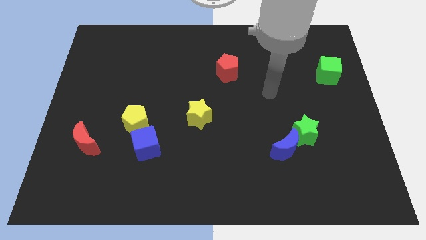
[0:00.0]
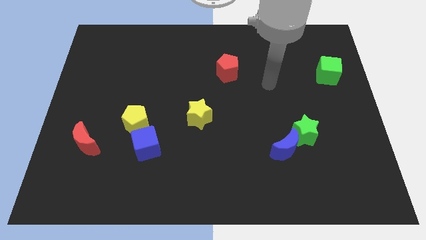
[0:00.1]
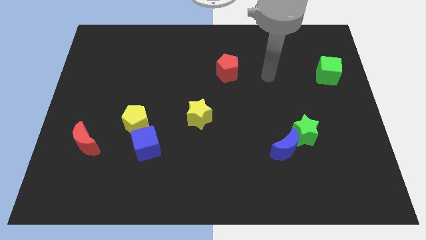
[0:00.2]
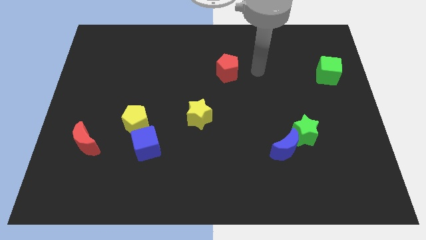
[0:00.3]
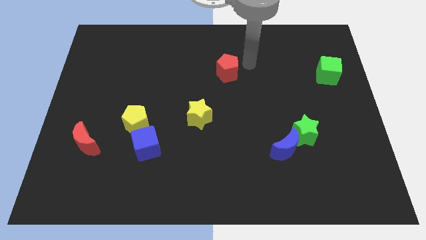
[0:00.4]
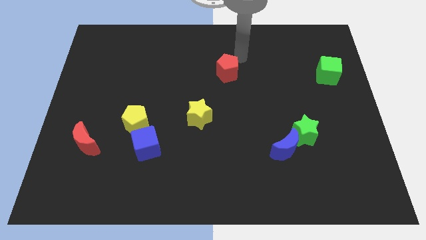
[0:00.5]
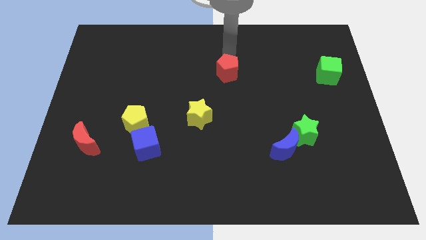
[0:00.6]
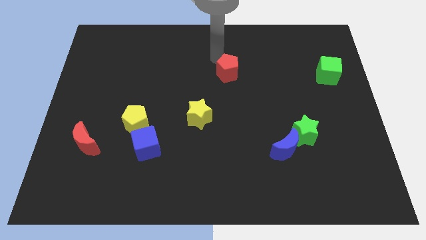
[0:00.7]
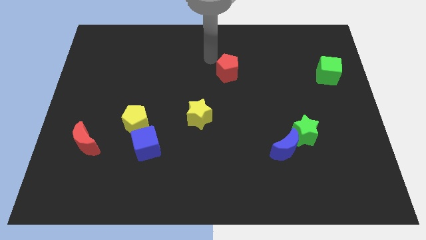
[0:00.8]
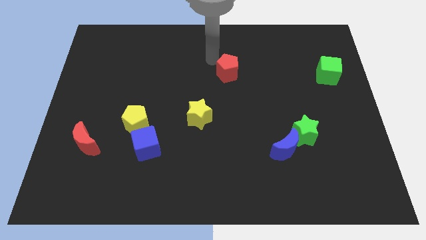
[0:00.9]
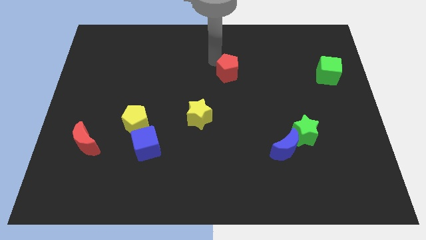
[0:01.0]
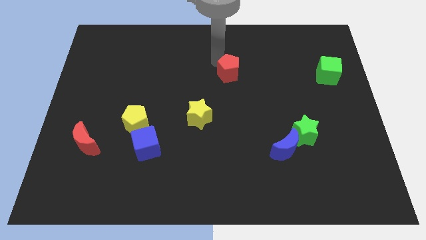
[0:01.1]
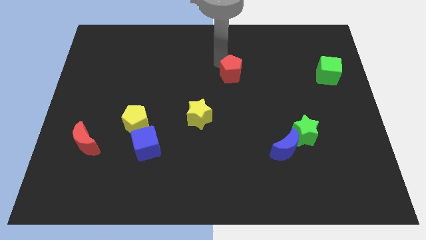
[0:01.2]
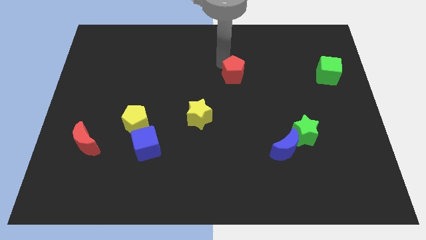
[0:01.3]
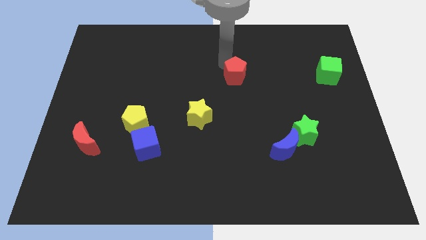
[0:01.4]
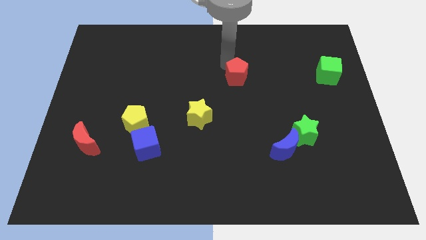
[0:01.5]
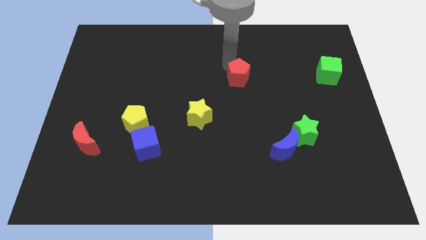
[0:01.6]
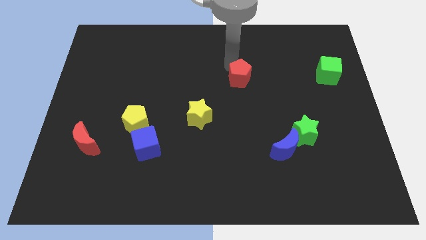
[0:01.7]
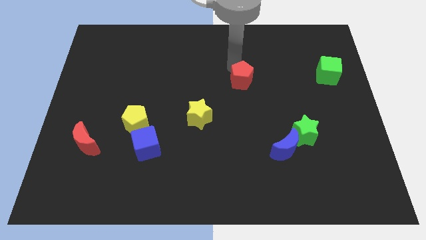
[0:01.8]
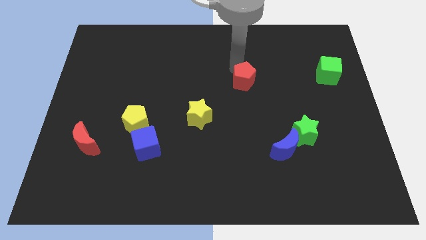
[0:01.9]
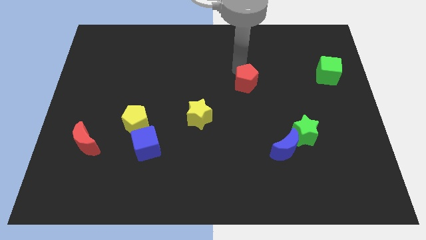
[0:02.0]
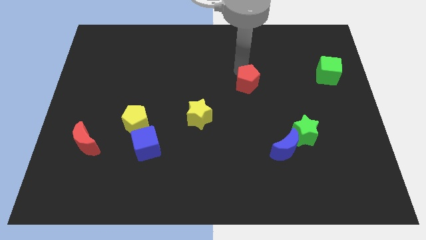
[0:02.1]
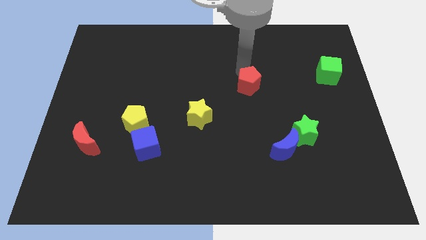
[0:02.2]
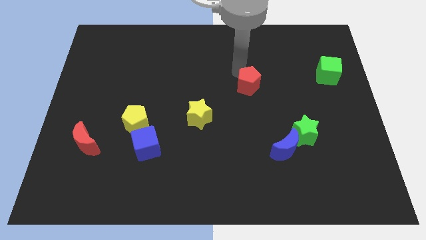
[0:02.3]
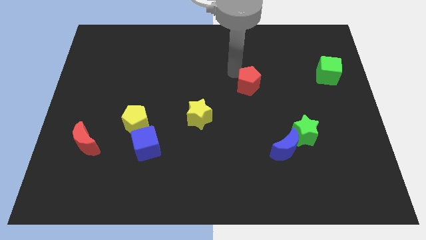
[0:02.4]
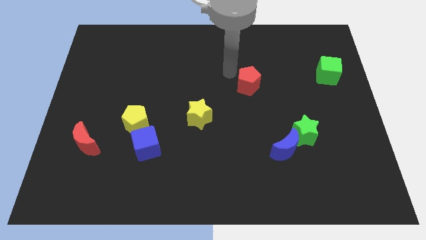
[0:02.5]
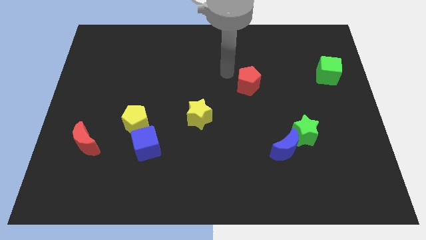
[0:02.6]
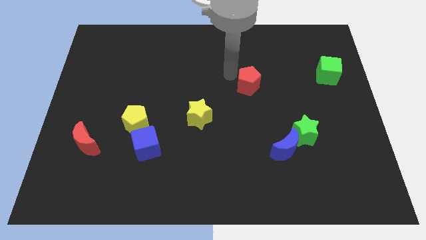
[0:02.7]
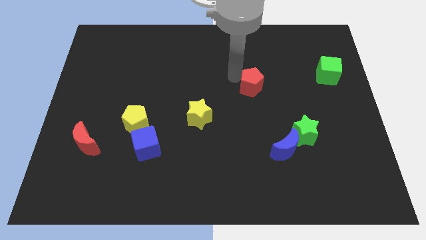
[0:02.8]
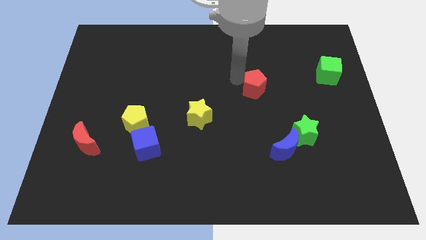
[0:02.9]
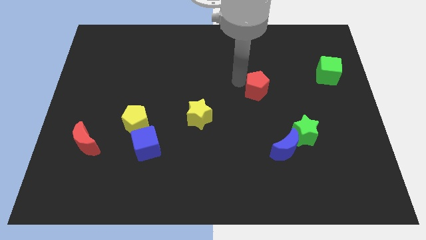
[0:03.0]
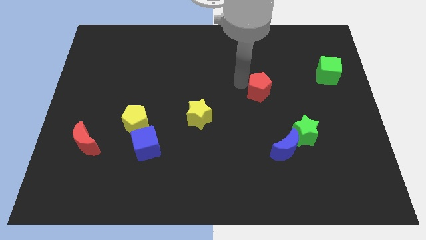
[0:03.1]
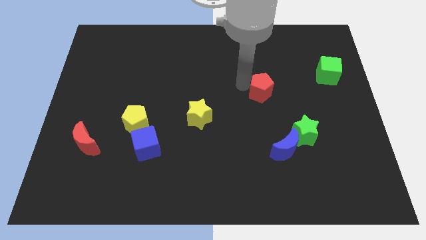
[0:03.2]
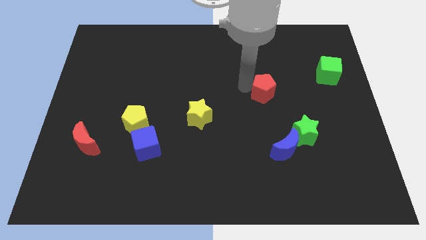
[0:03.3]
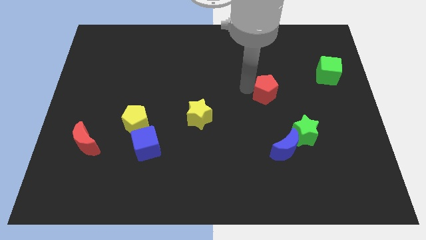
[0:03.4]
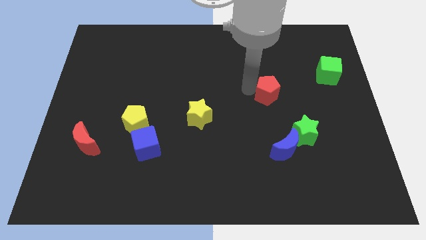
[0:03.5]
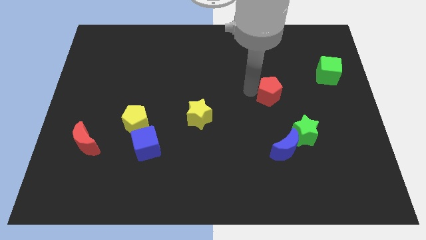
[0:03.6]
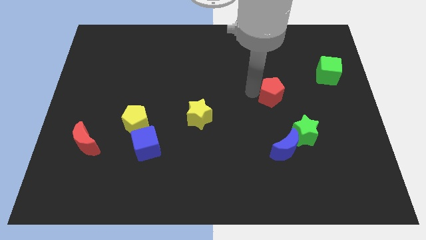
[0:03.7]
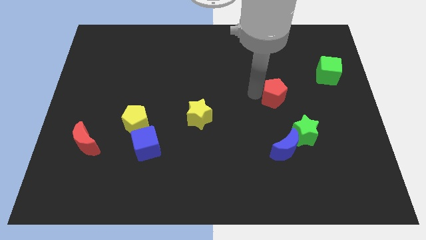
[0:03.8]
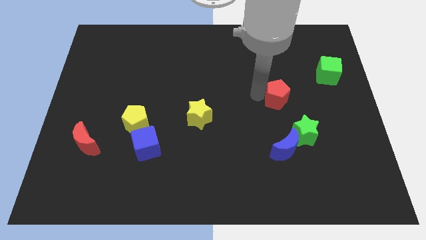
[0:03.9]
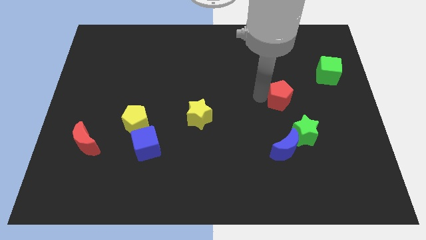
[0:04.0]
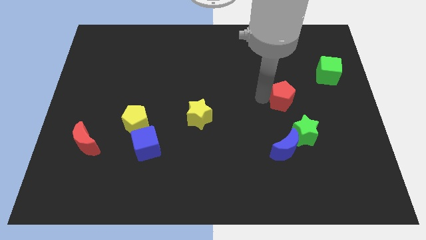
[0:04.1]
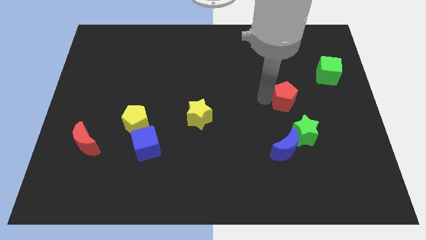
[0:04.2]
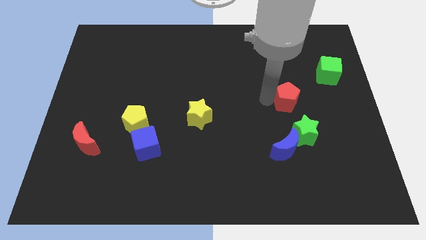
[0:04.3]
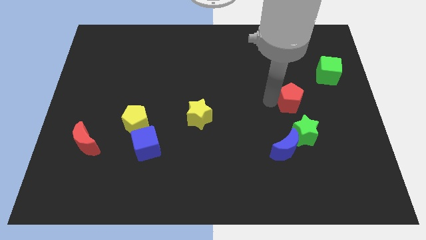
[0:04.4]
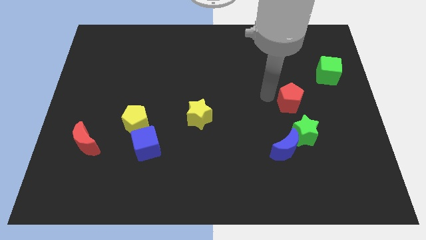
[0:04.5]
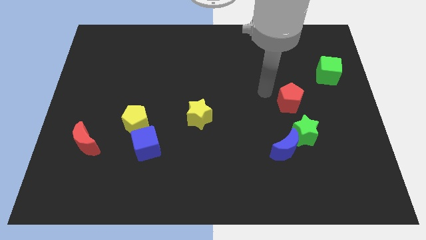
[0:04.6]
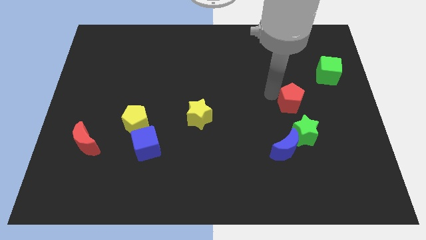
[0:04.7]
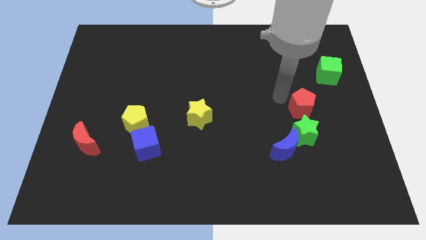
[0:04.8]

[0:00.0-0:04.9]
push the red pentagon to the top right of the green star

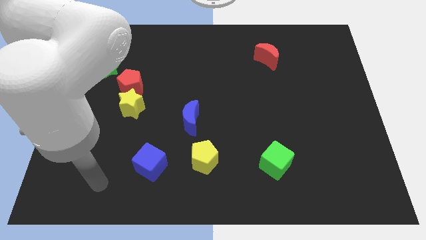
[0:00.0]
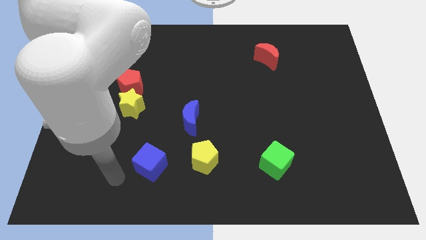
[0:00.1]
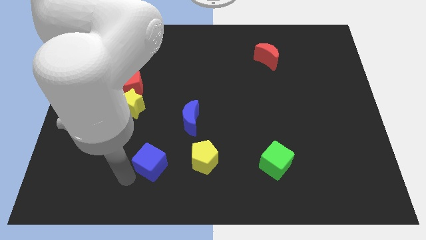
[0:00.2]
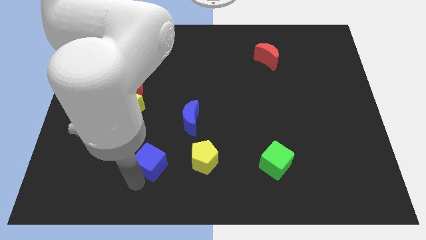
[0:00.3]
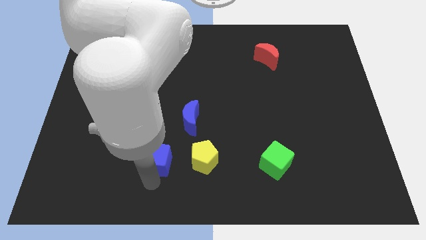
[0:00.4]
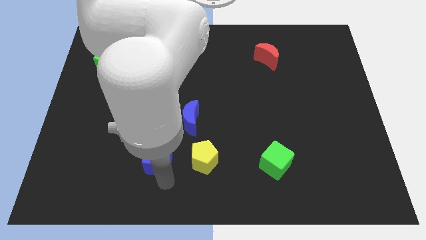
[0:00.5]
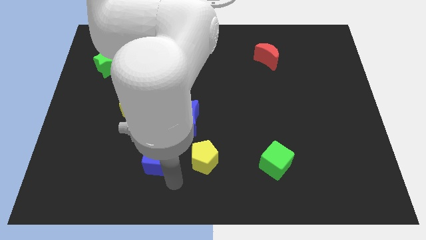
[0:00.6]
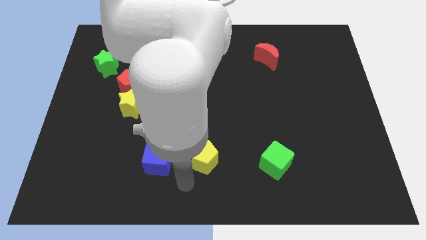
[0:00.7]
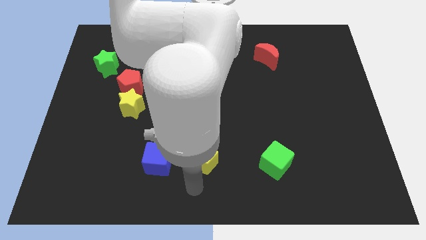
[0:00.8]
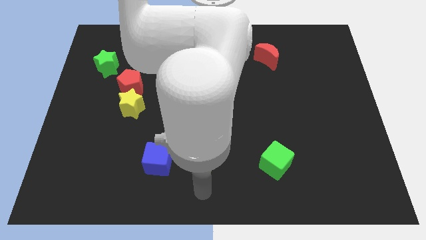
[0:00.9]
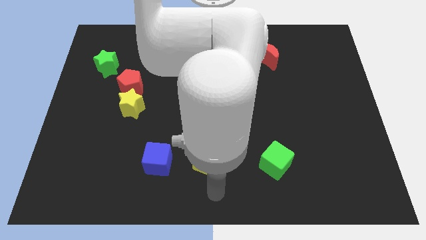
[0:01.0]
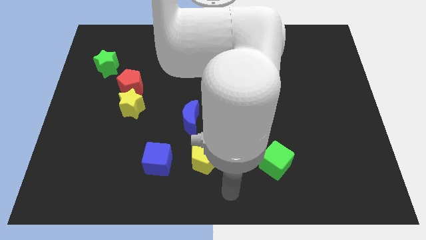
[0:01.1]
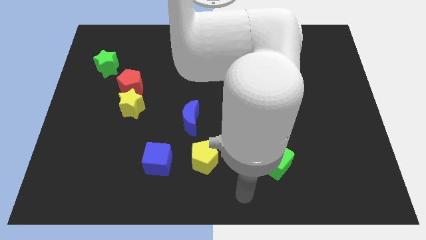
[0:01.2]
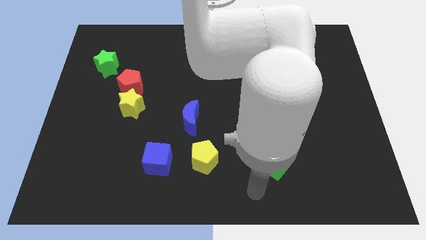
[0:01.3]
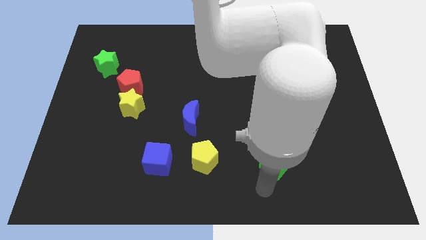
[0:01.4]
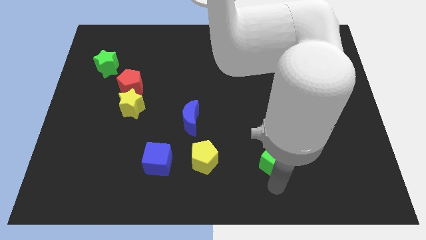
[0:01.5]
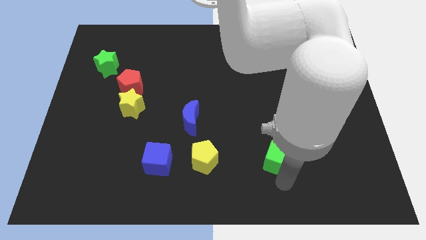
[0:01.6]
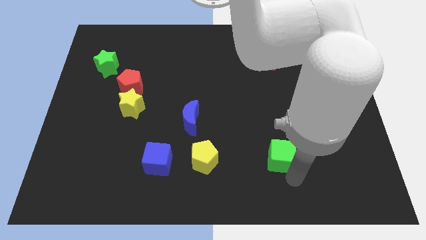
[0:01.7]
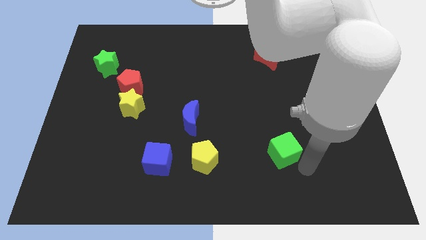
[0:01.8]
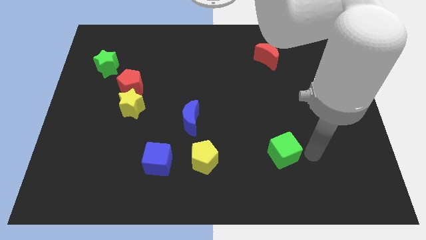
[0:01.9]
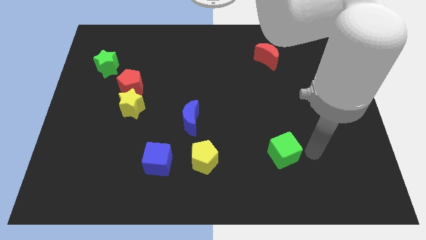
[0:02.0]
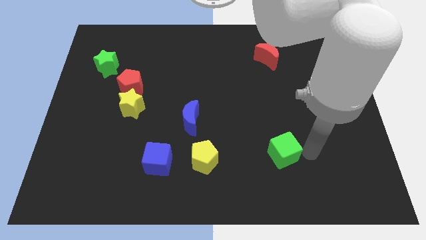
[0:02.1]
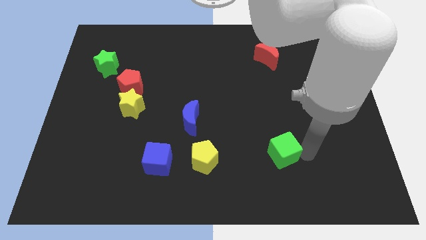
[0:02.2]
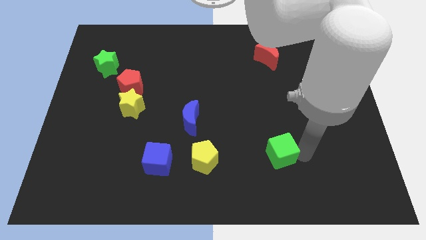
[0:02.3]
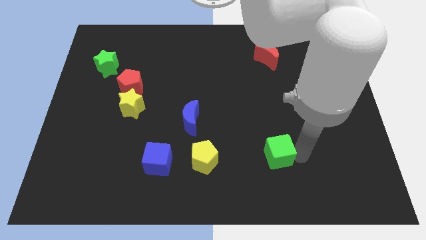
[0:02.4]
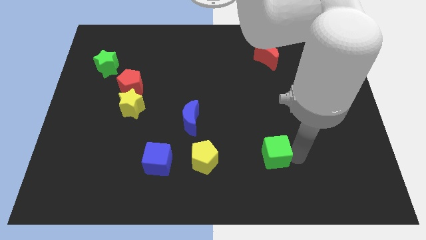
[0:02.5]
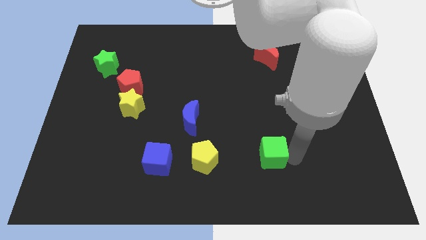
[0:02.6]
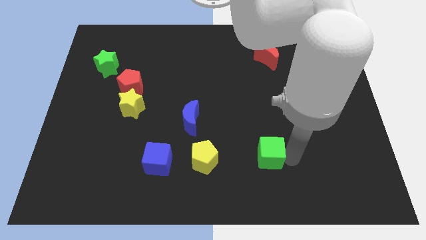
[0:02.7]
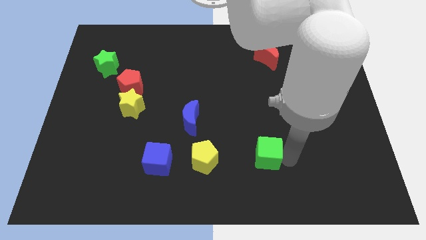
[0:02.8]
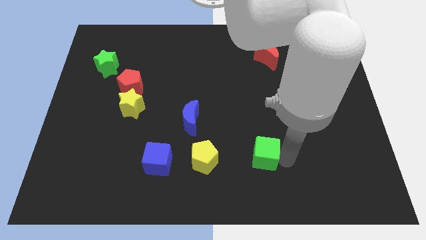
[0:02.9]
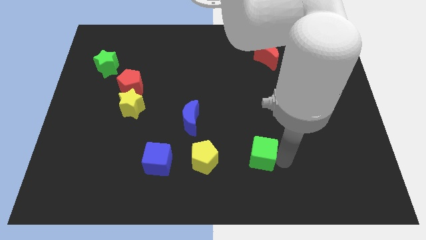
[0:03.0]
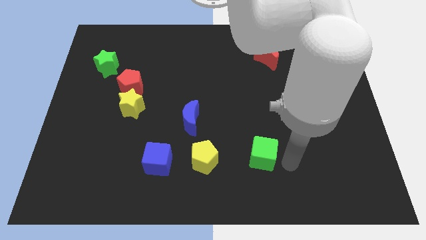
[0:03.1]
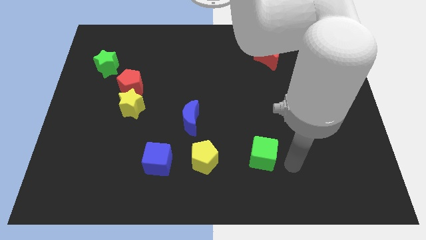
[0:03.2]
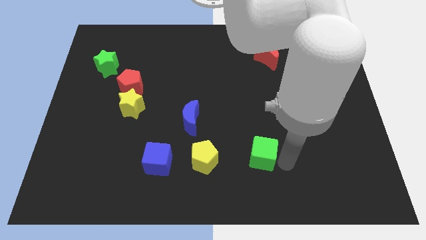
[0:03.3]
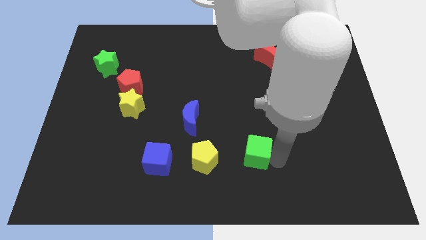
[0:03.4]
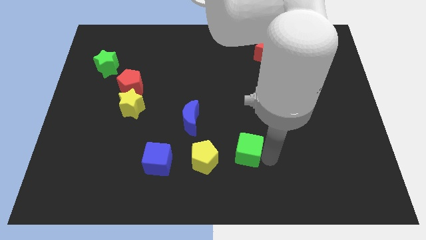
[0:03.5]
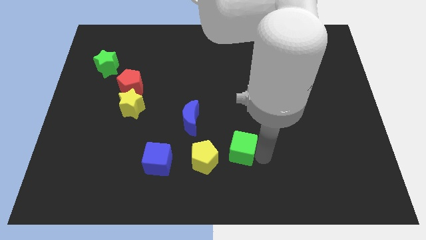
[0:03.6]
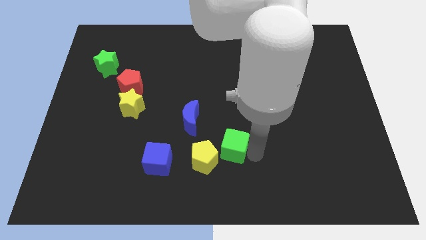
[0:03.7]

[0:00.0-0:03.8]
slide the green cube diagonally down and to the right of the blue moon
